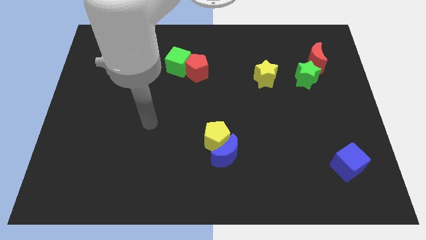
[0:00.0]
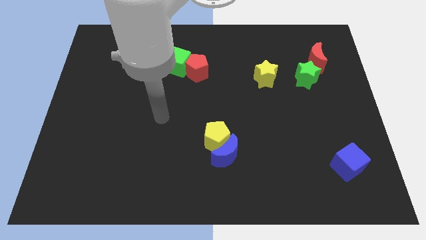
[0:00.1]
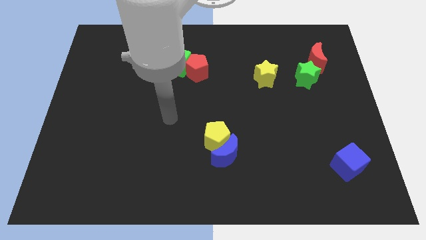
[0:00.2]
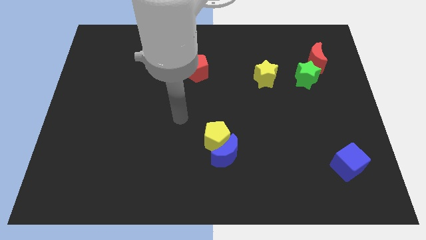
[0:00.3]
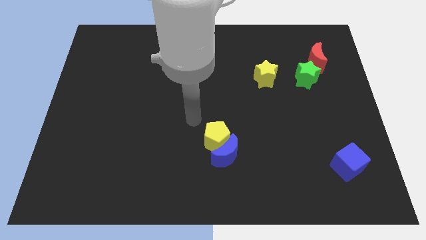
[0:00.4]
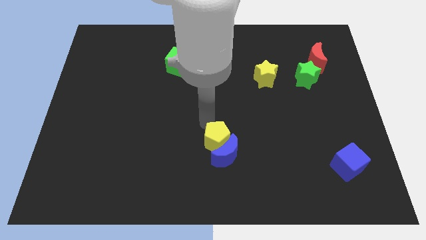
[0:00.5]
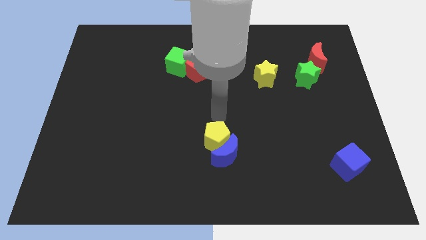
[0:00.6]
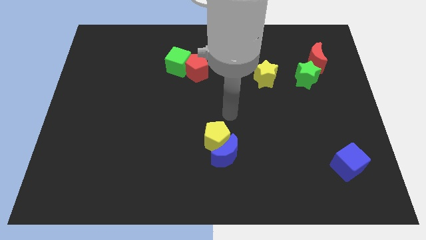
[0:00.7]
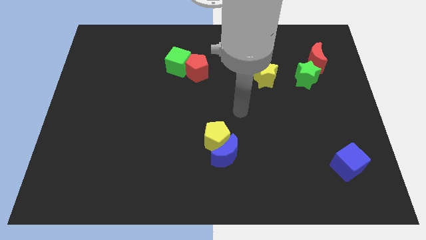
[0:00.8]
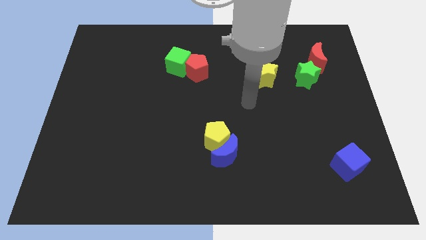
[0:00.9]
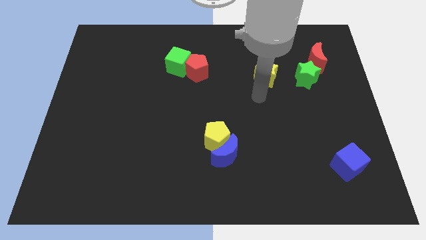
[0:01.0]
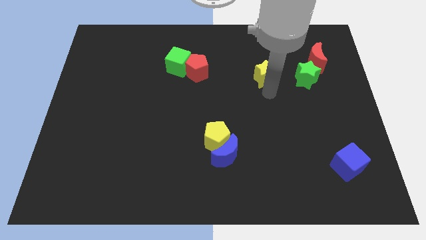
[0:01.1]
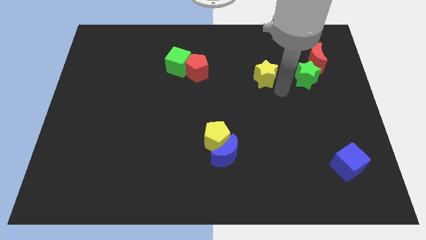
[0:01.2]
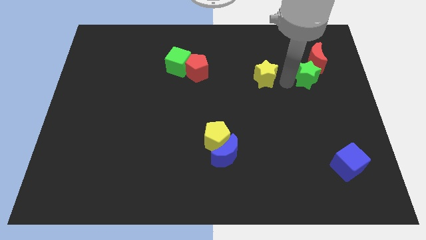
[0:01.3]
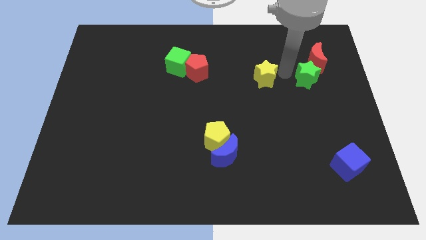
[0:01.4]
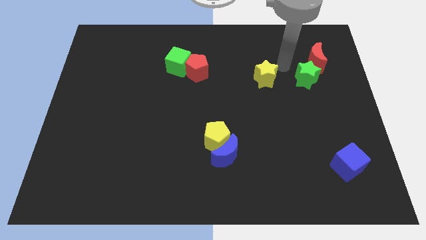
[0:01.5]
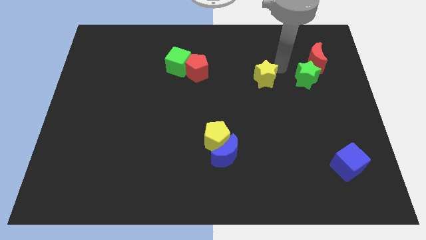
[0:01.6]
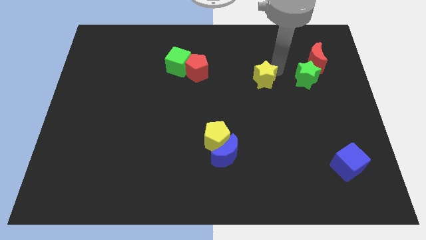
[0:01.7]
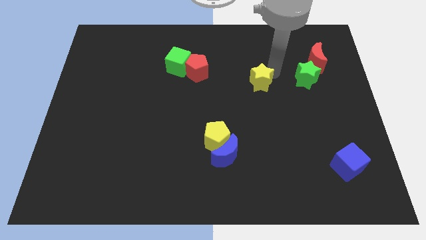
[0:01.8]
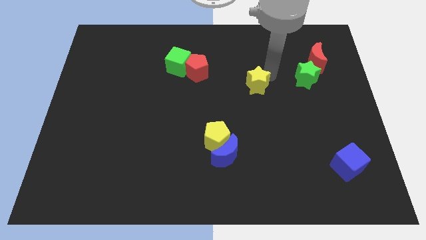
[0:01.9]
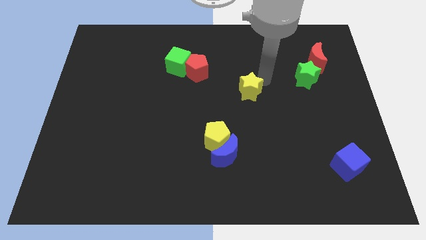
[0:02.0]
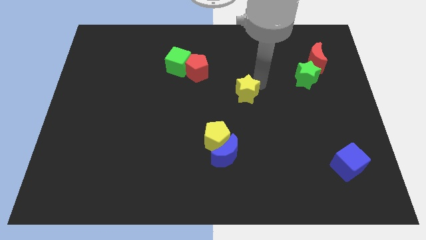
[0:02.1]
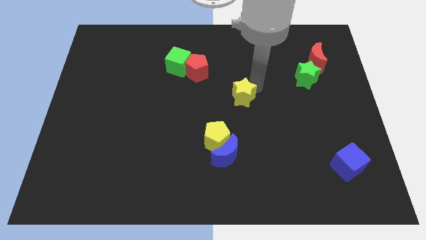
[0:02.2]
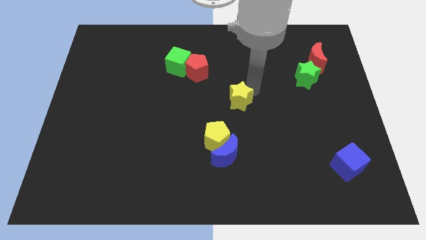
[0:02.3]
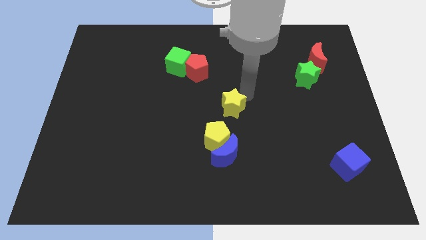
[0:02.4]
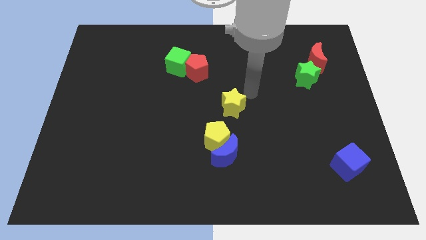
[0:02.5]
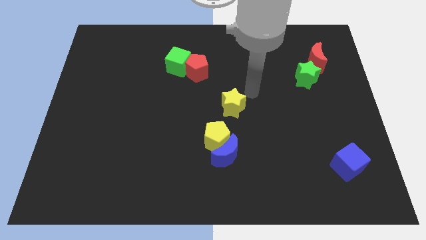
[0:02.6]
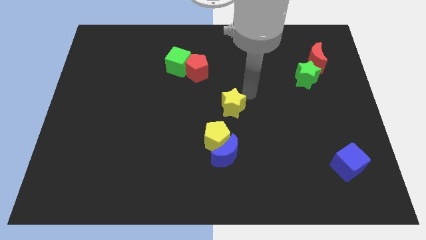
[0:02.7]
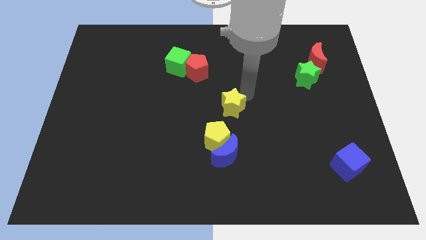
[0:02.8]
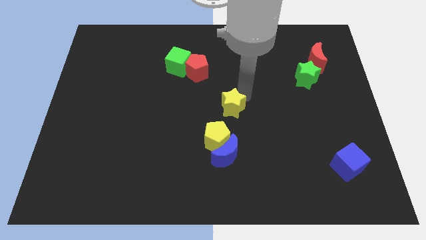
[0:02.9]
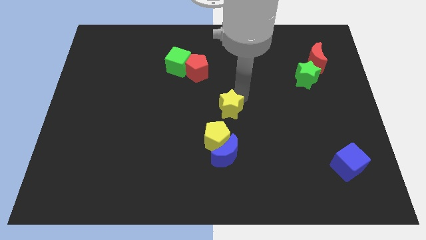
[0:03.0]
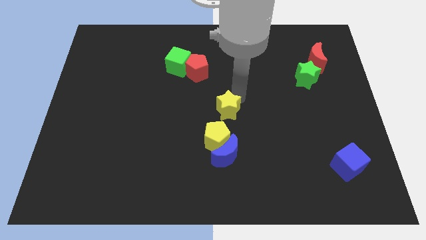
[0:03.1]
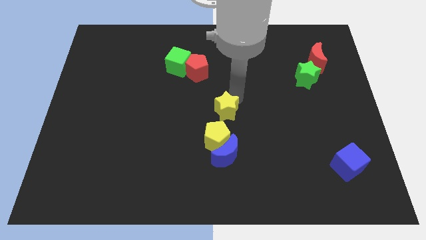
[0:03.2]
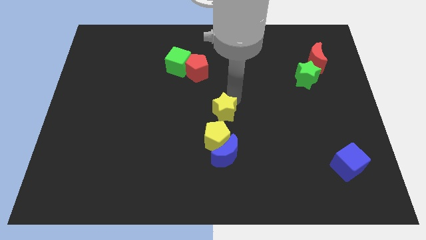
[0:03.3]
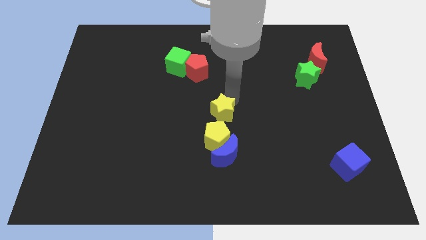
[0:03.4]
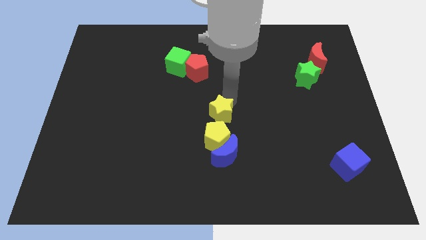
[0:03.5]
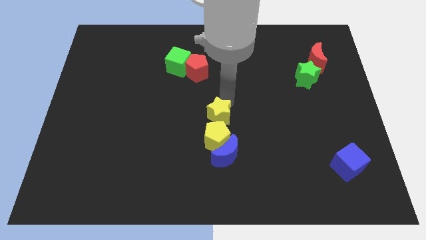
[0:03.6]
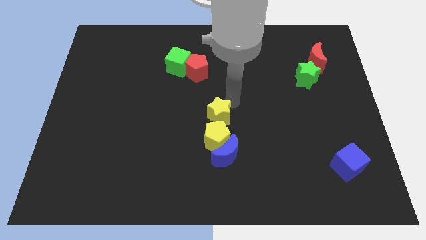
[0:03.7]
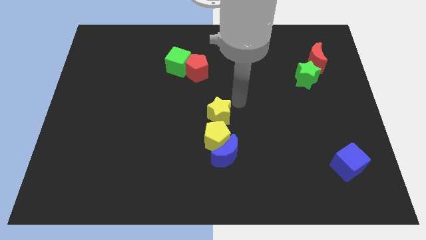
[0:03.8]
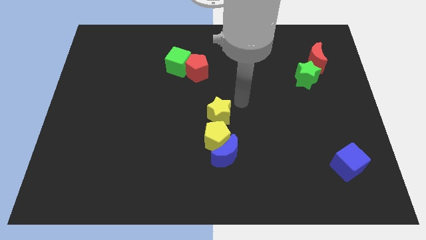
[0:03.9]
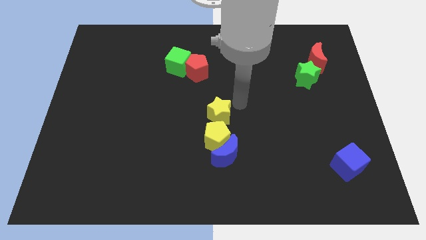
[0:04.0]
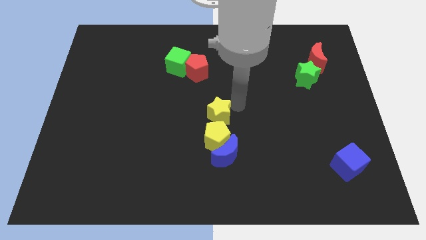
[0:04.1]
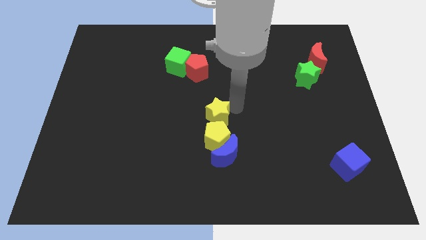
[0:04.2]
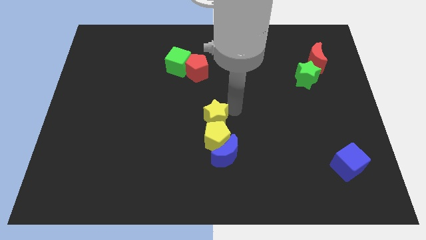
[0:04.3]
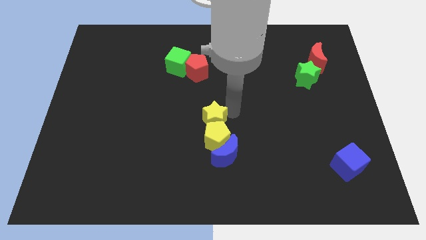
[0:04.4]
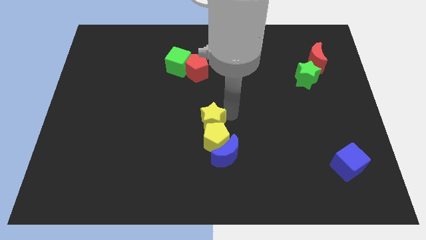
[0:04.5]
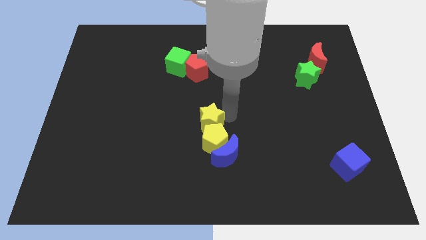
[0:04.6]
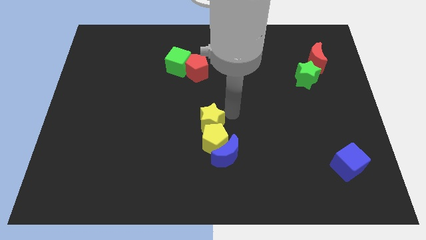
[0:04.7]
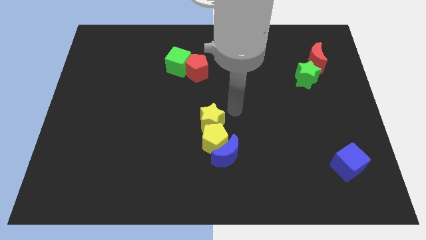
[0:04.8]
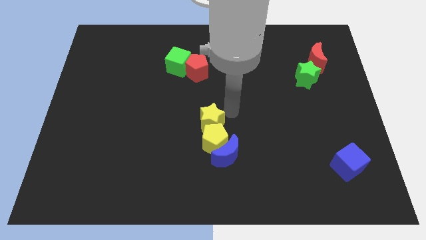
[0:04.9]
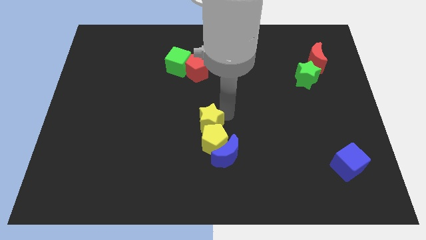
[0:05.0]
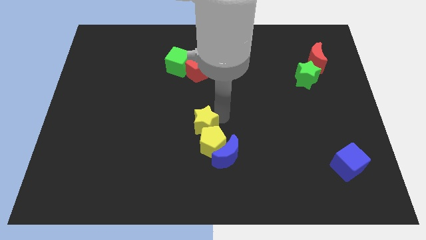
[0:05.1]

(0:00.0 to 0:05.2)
slide the yellow star downwards and then left

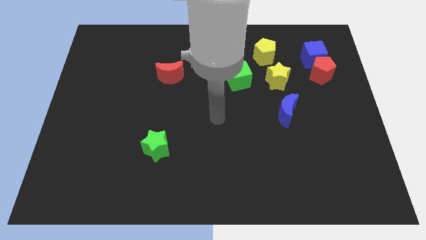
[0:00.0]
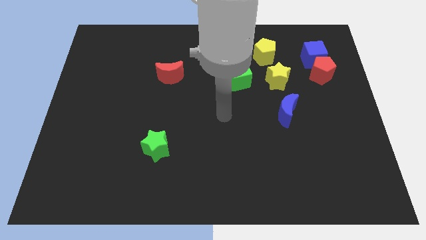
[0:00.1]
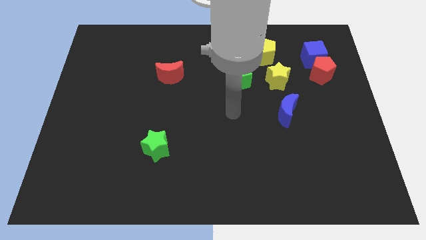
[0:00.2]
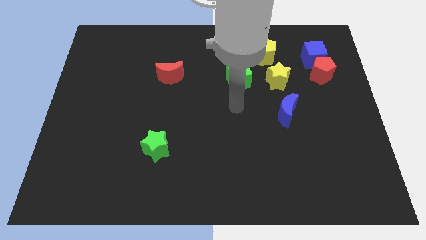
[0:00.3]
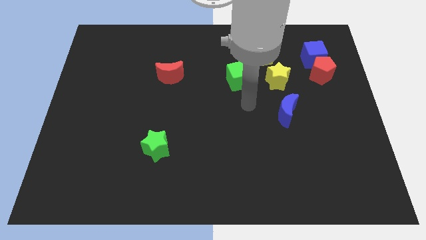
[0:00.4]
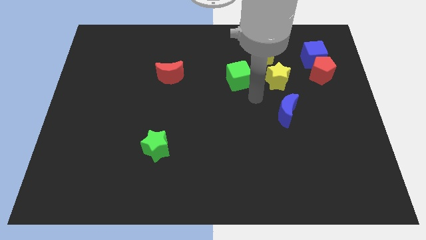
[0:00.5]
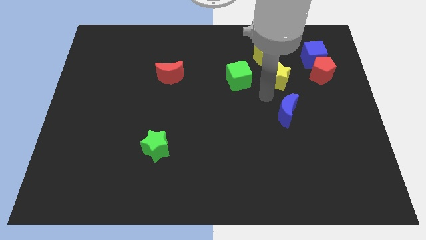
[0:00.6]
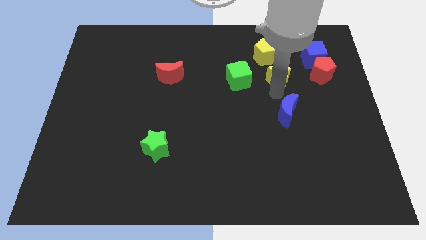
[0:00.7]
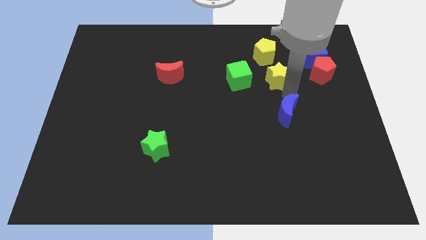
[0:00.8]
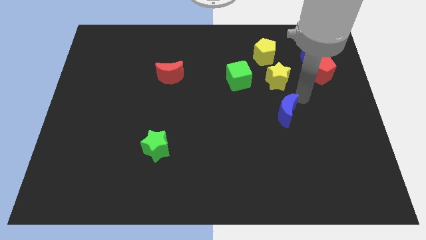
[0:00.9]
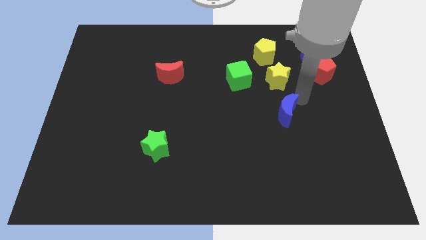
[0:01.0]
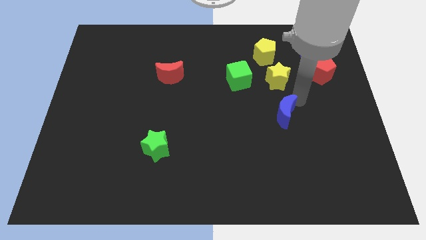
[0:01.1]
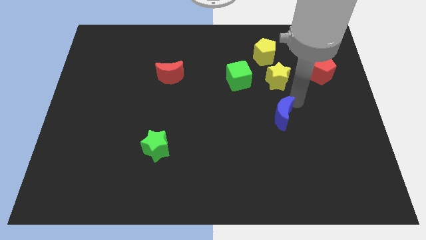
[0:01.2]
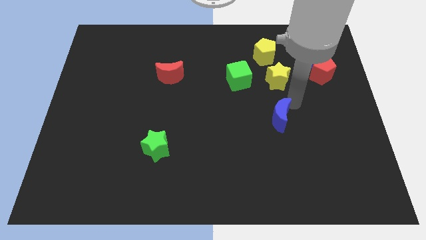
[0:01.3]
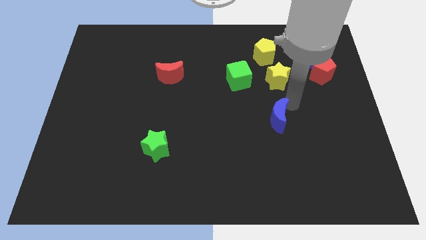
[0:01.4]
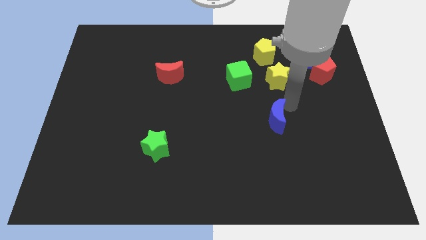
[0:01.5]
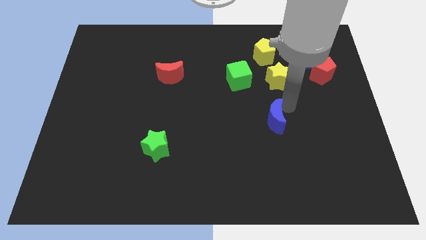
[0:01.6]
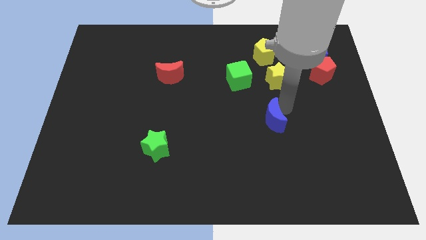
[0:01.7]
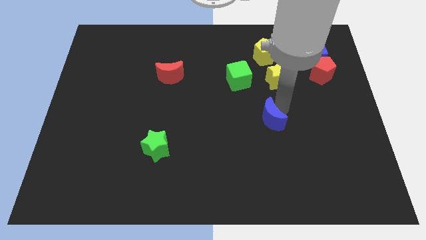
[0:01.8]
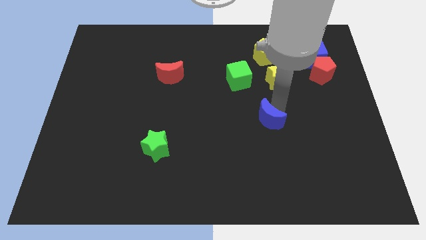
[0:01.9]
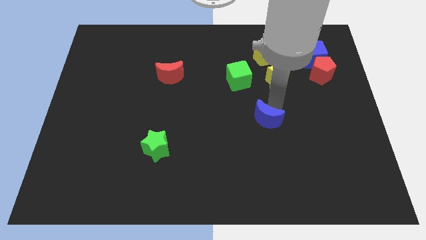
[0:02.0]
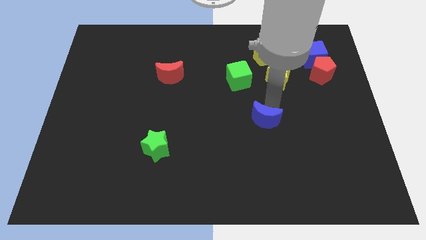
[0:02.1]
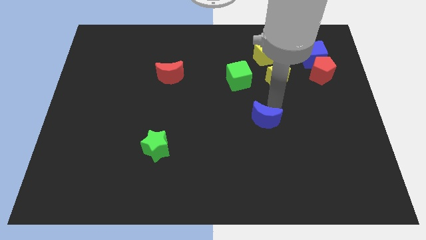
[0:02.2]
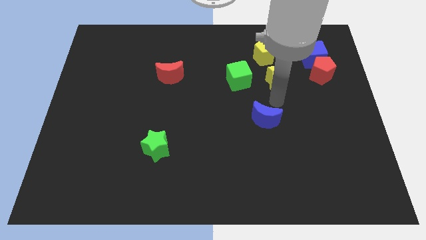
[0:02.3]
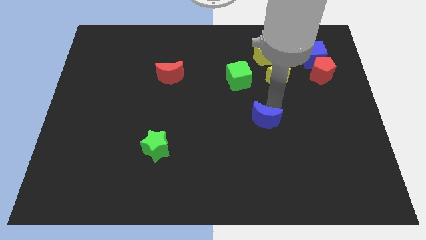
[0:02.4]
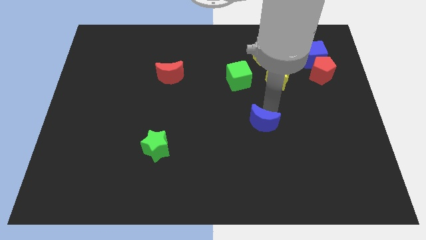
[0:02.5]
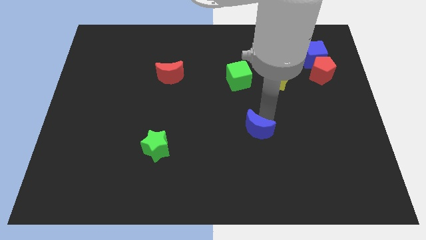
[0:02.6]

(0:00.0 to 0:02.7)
slide the blue moon downwards and then to the left somewhat

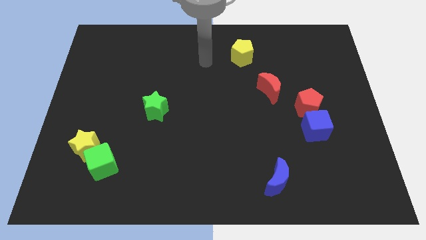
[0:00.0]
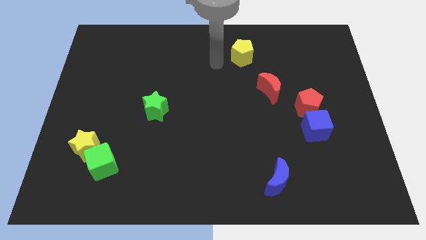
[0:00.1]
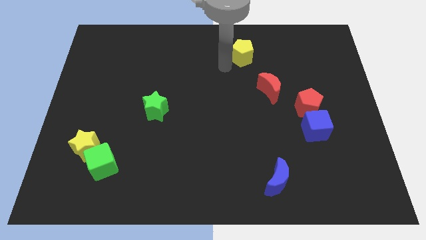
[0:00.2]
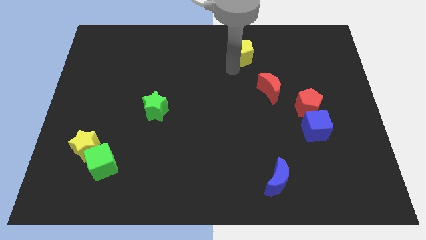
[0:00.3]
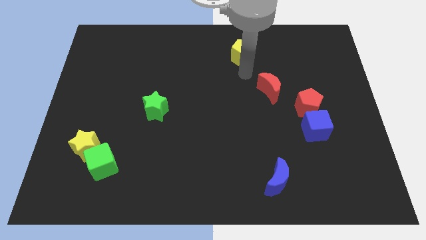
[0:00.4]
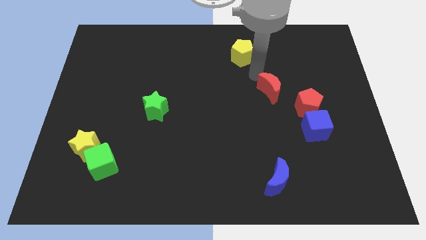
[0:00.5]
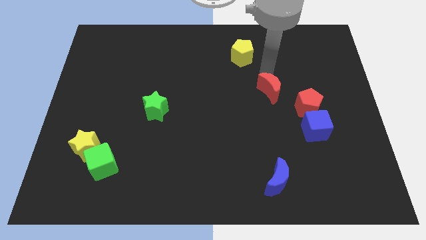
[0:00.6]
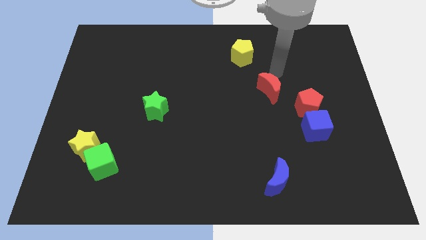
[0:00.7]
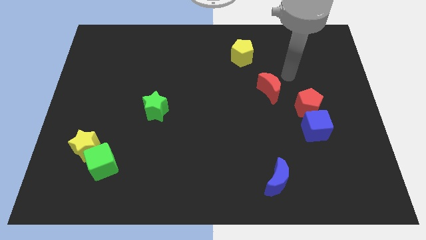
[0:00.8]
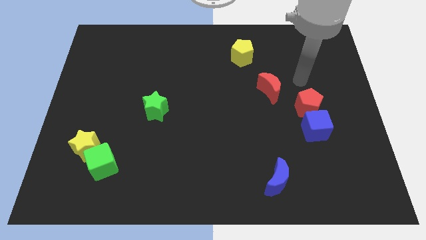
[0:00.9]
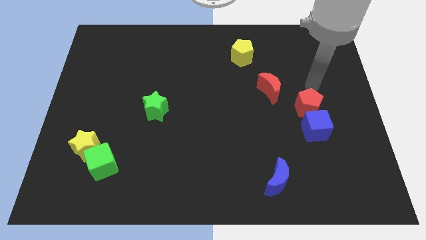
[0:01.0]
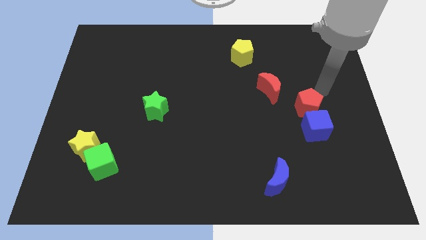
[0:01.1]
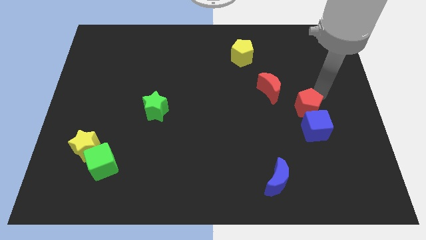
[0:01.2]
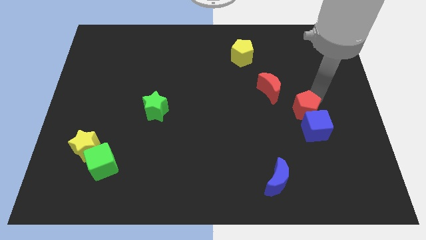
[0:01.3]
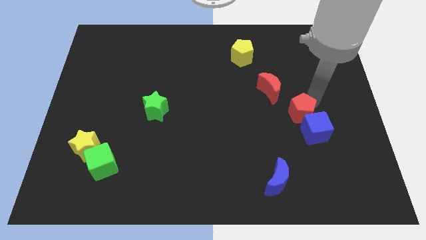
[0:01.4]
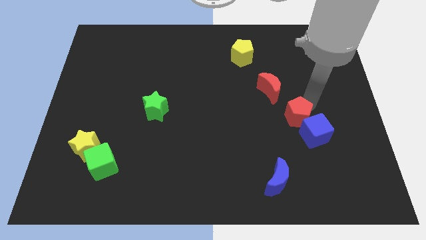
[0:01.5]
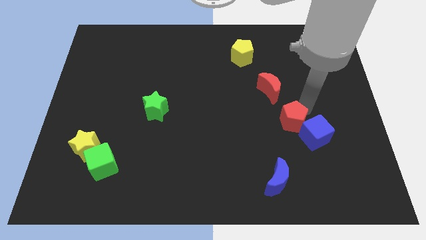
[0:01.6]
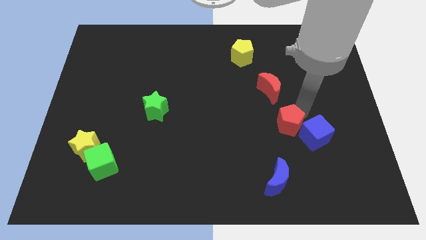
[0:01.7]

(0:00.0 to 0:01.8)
slide the red pentagon diagonally downwards and to the left a bit
